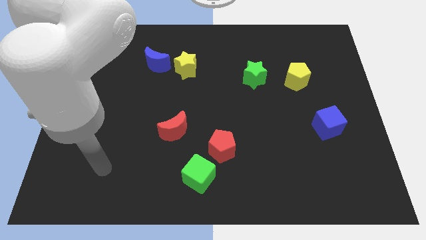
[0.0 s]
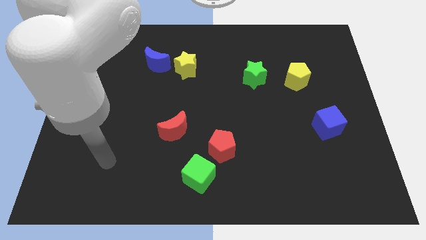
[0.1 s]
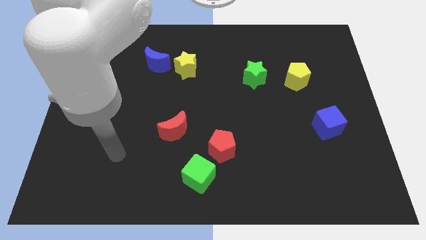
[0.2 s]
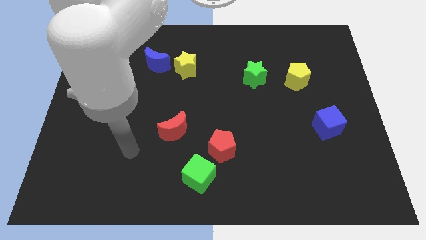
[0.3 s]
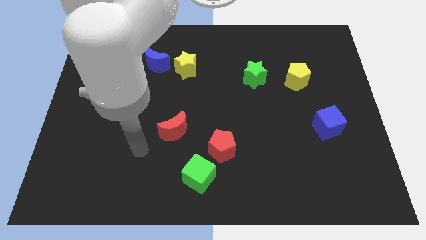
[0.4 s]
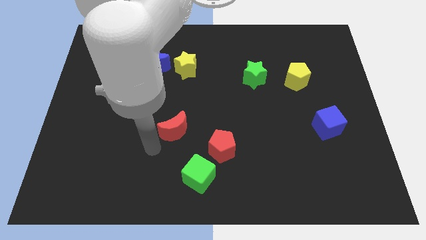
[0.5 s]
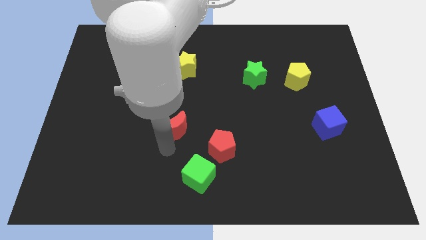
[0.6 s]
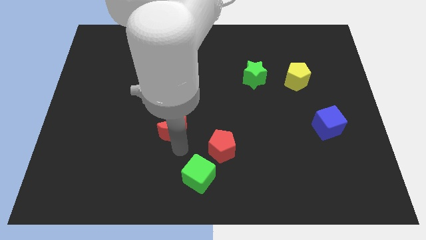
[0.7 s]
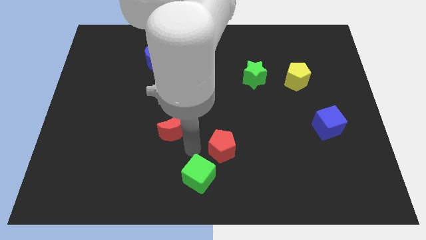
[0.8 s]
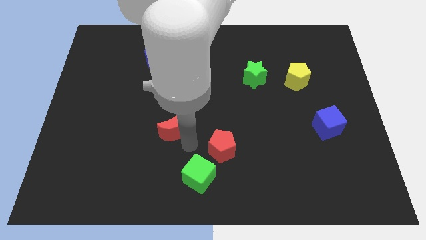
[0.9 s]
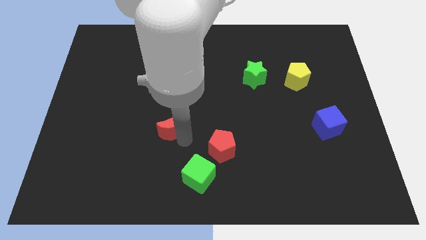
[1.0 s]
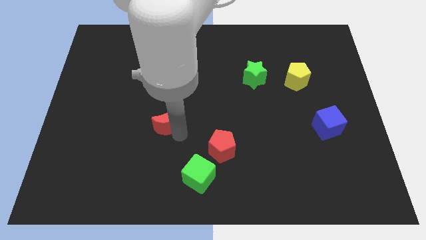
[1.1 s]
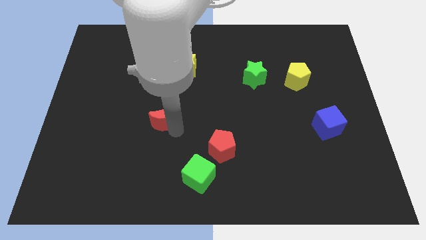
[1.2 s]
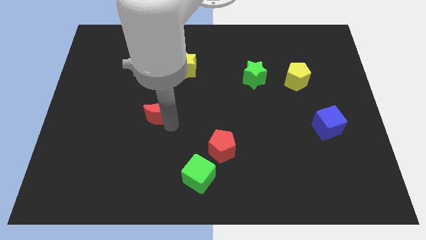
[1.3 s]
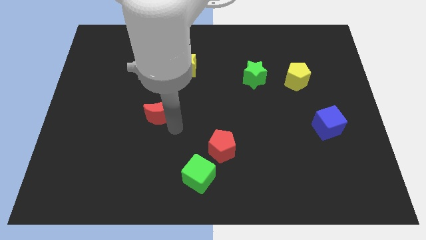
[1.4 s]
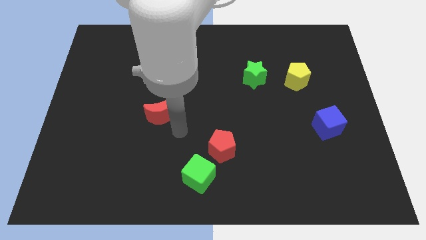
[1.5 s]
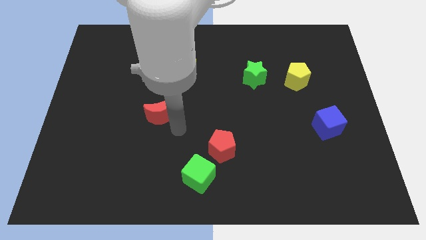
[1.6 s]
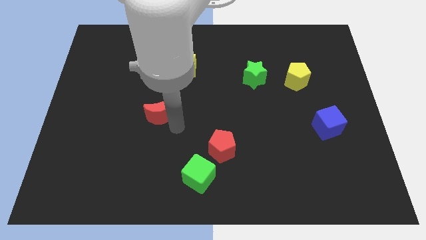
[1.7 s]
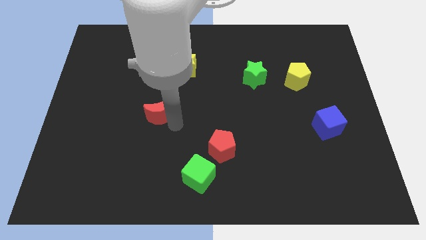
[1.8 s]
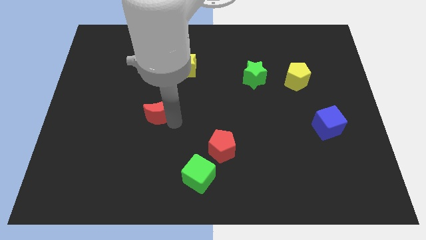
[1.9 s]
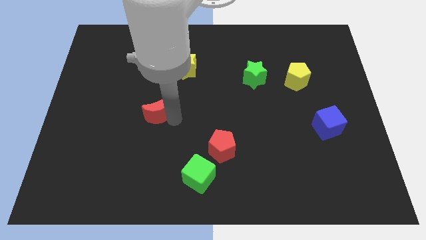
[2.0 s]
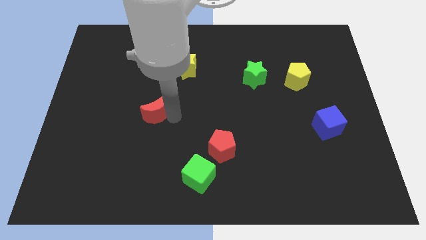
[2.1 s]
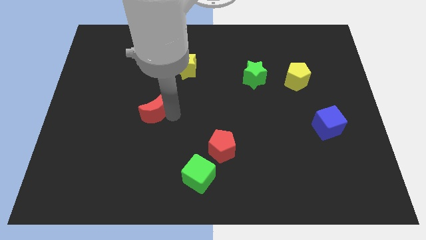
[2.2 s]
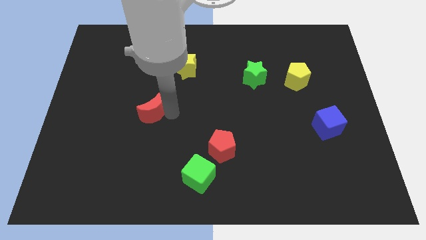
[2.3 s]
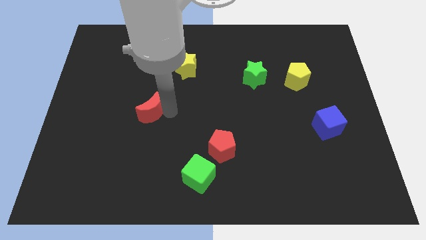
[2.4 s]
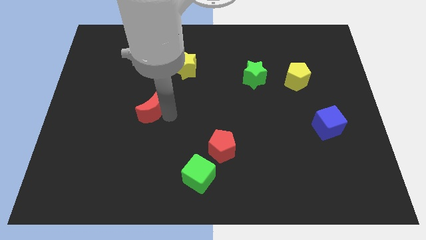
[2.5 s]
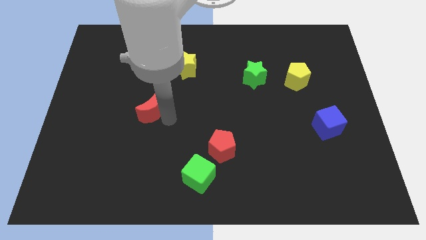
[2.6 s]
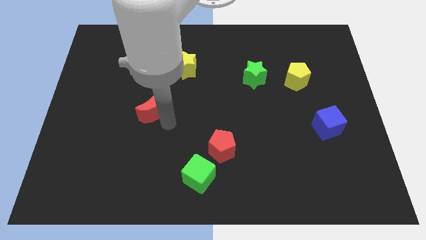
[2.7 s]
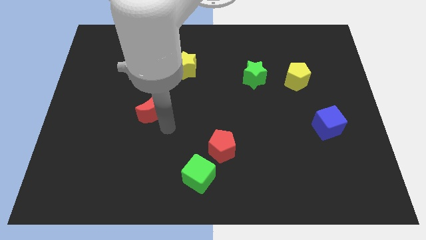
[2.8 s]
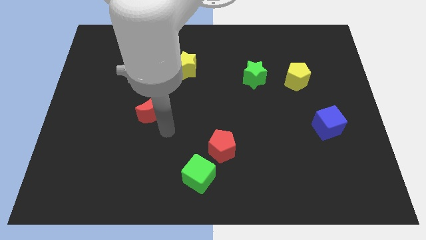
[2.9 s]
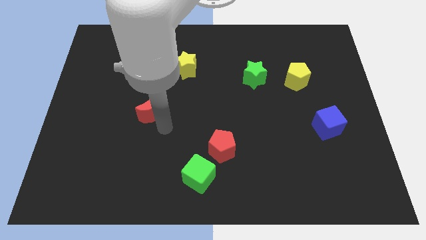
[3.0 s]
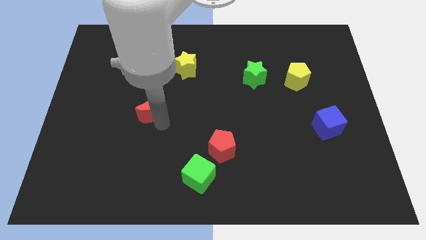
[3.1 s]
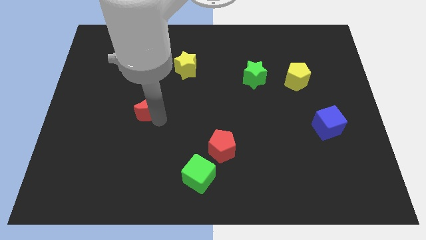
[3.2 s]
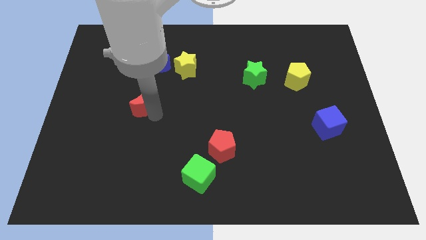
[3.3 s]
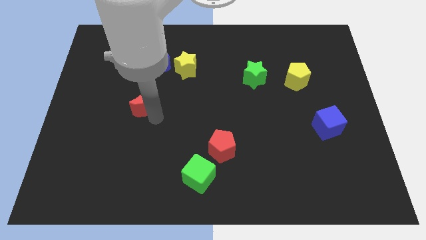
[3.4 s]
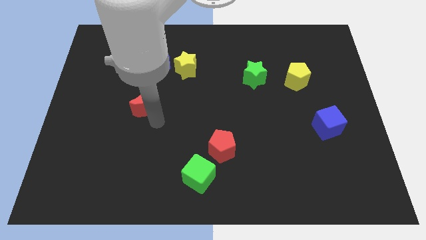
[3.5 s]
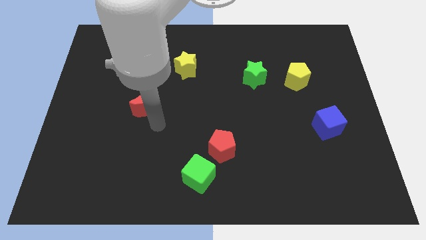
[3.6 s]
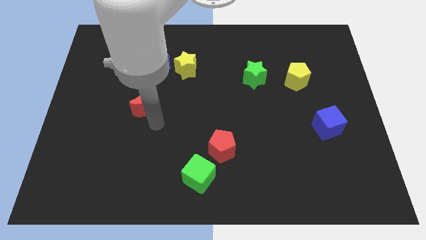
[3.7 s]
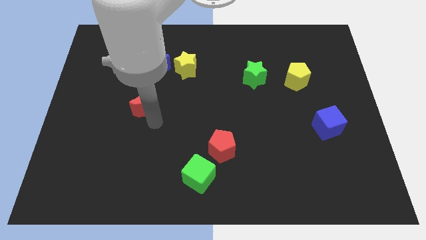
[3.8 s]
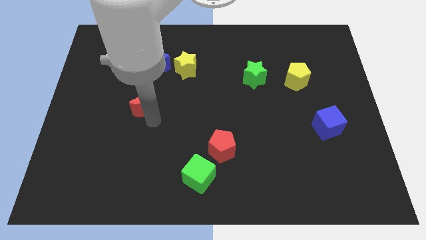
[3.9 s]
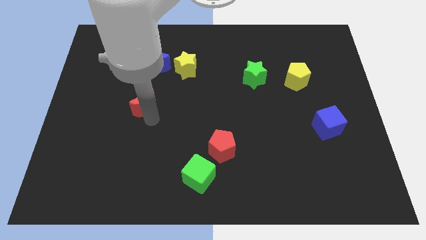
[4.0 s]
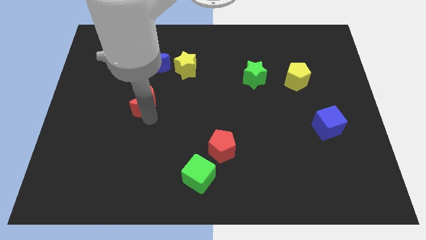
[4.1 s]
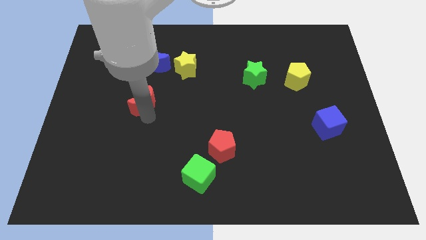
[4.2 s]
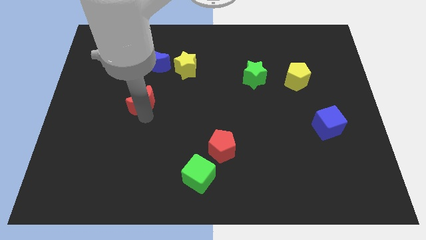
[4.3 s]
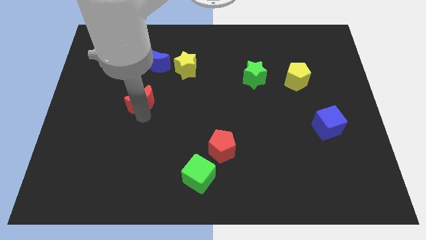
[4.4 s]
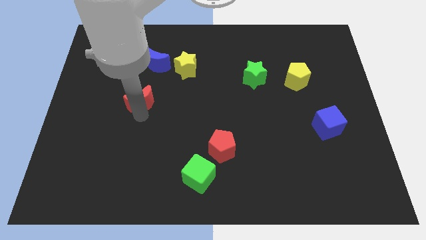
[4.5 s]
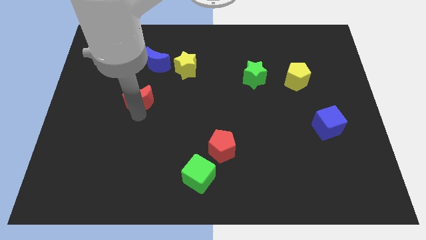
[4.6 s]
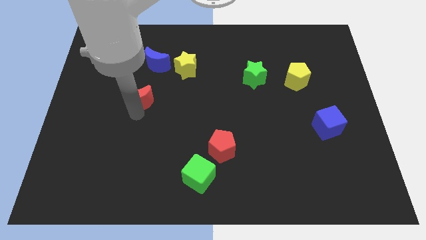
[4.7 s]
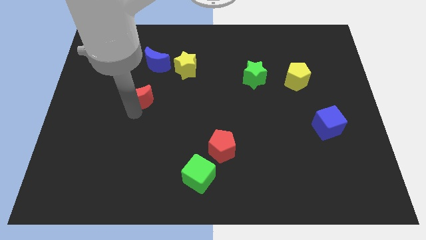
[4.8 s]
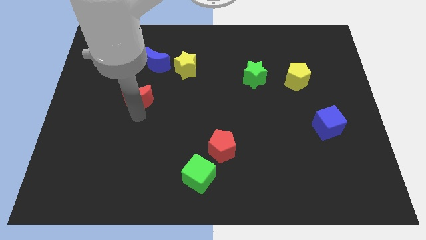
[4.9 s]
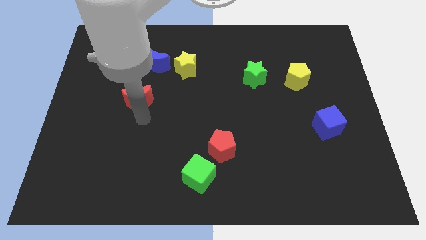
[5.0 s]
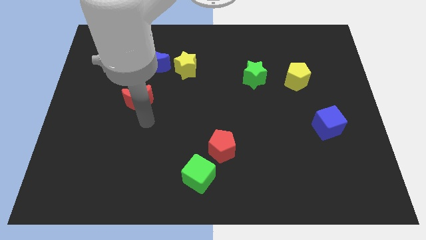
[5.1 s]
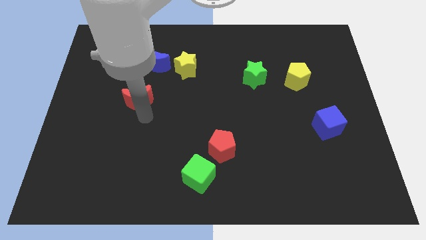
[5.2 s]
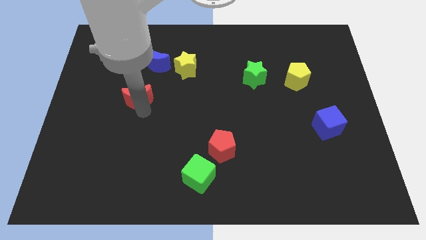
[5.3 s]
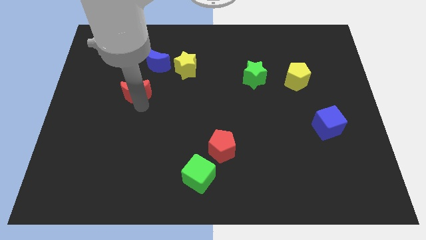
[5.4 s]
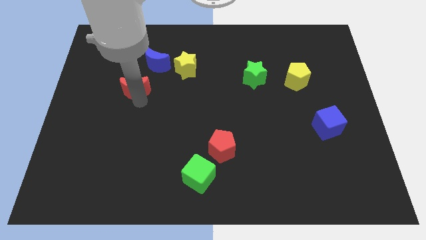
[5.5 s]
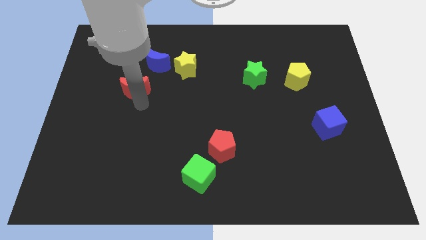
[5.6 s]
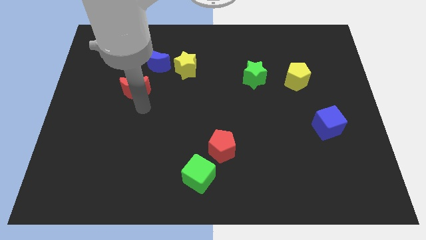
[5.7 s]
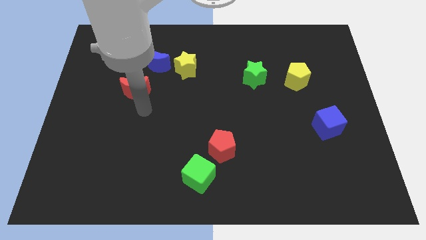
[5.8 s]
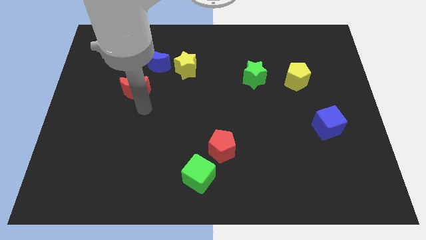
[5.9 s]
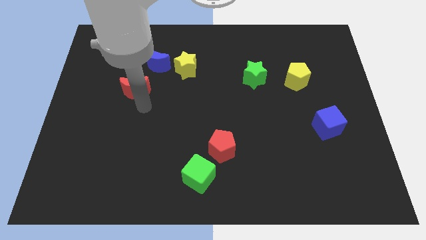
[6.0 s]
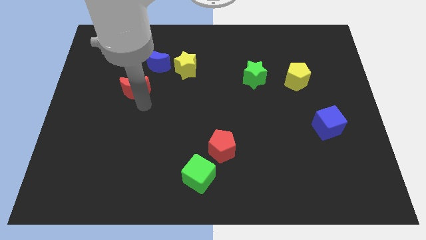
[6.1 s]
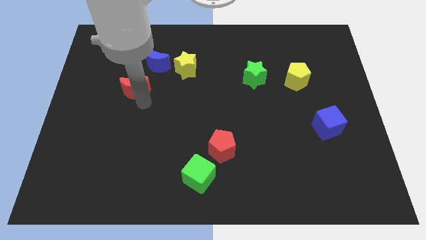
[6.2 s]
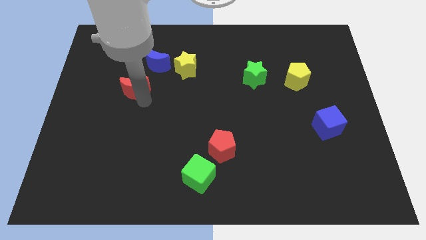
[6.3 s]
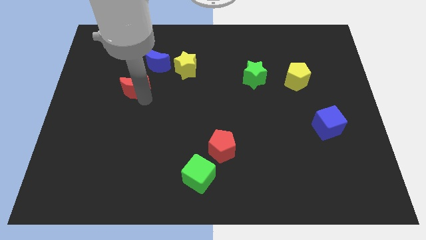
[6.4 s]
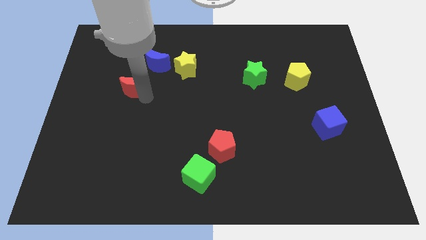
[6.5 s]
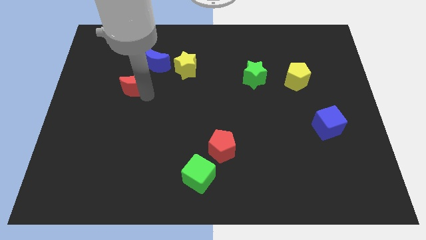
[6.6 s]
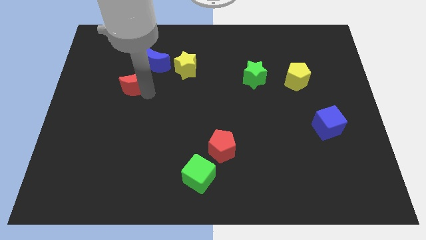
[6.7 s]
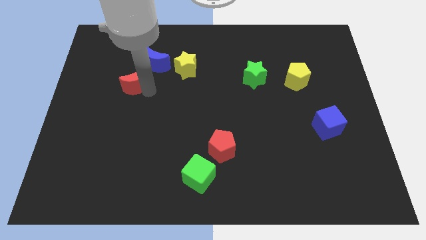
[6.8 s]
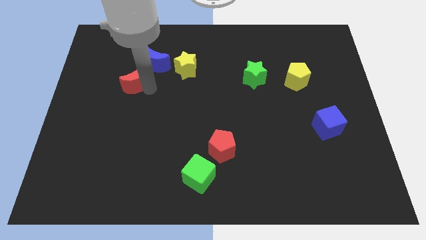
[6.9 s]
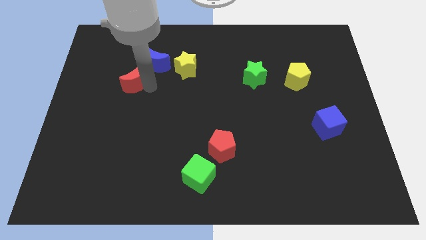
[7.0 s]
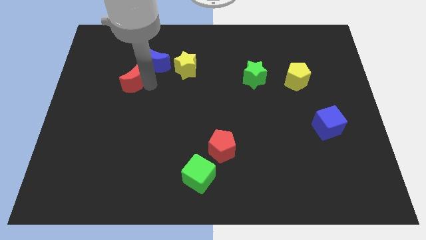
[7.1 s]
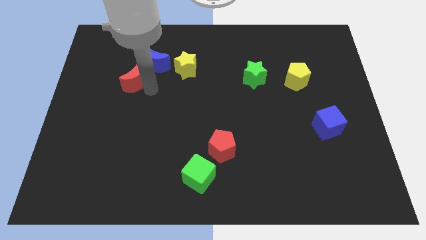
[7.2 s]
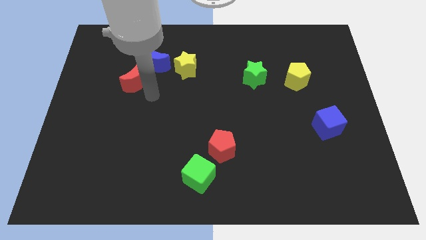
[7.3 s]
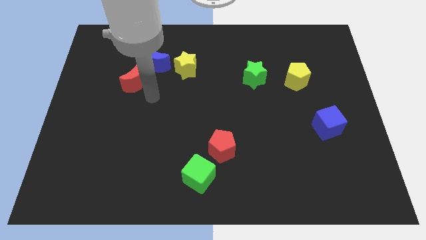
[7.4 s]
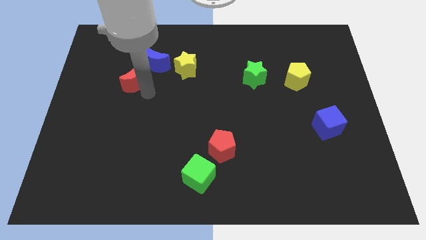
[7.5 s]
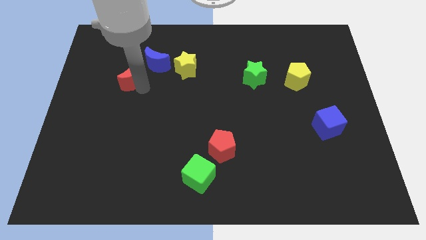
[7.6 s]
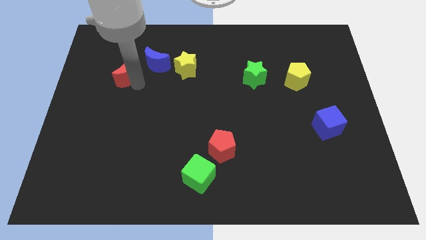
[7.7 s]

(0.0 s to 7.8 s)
push the red moon left of the blue moon
